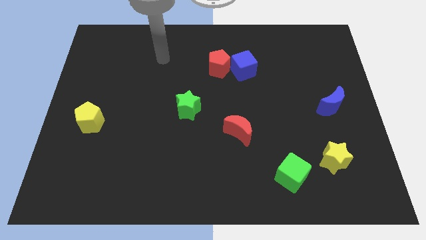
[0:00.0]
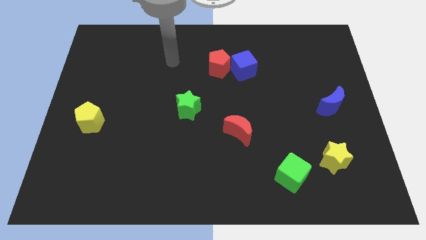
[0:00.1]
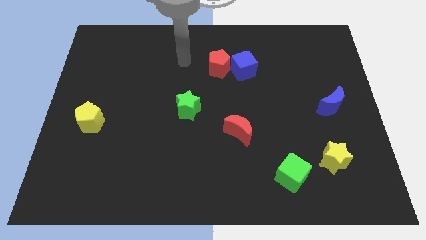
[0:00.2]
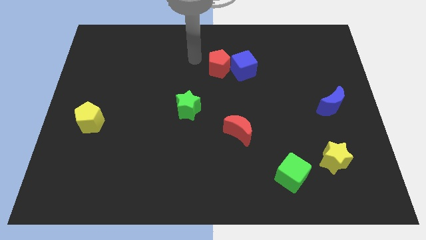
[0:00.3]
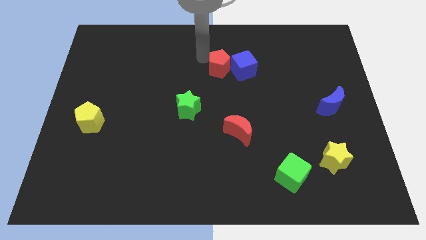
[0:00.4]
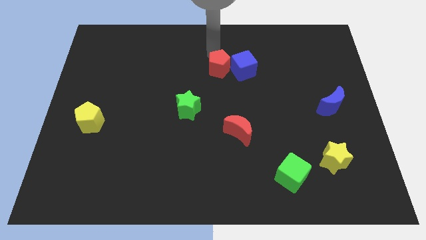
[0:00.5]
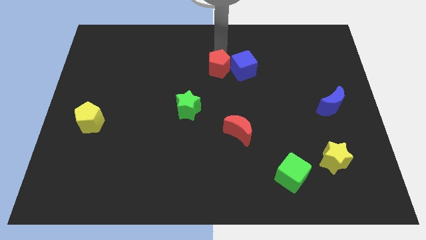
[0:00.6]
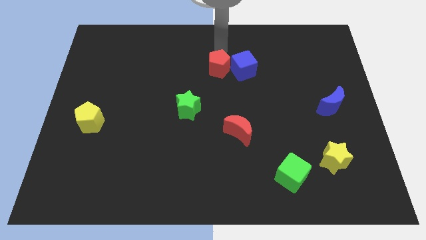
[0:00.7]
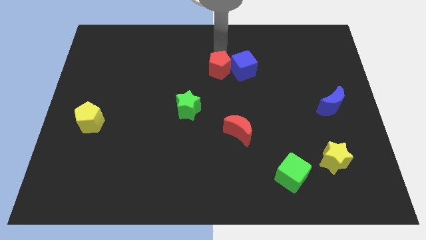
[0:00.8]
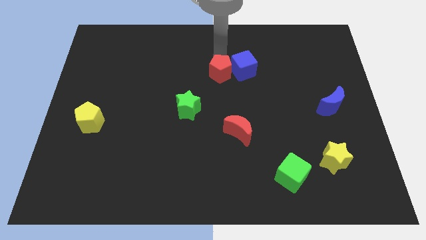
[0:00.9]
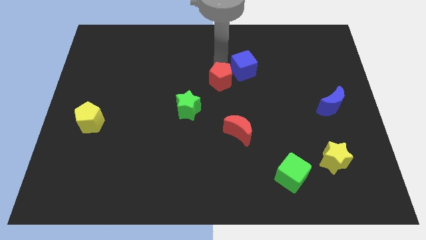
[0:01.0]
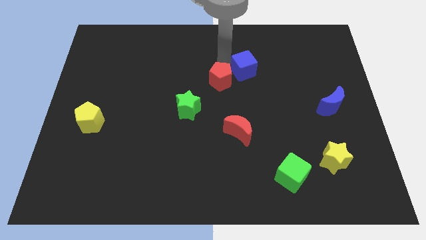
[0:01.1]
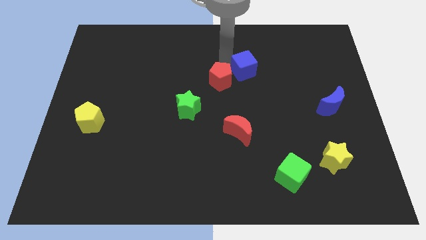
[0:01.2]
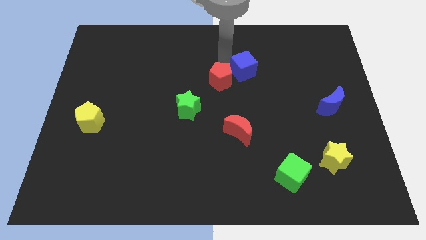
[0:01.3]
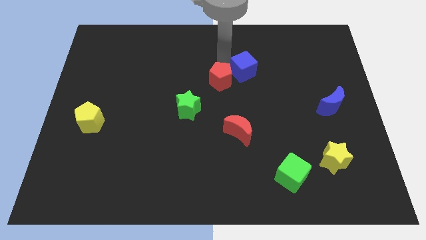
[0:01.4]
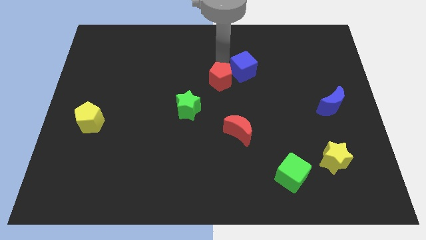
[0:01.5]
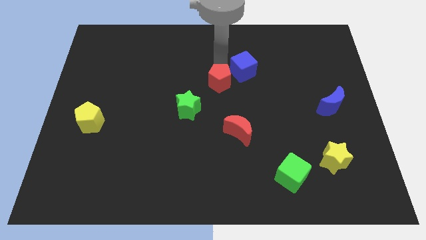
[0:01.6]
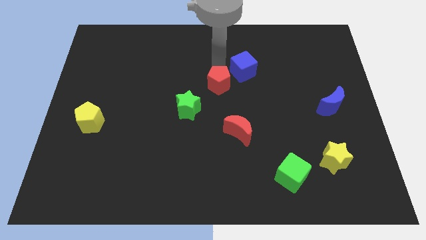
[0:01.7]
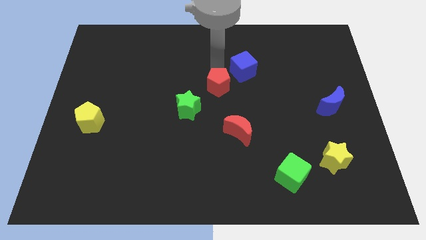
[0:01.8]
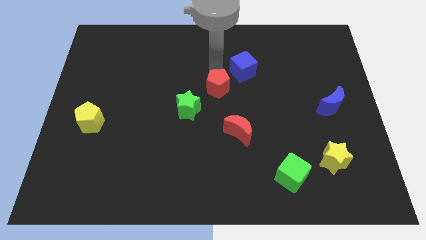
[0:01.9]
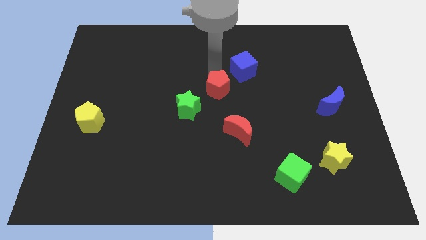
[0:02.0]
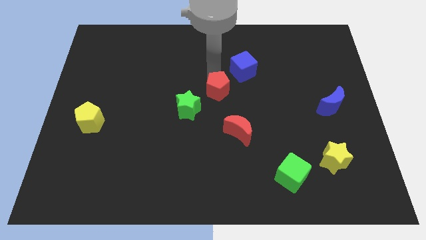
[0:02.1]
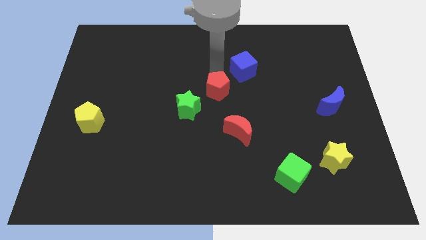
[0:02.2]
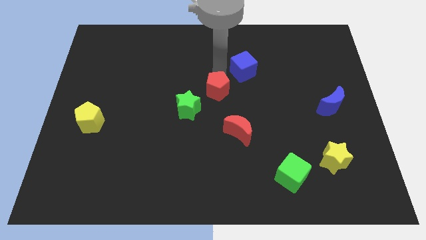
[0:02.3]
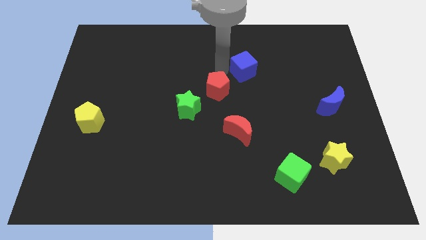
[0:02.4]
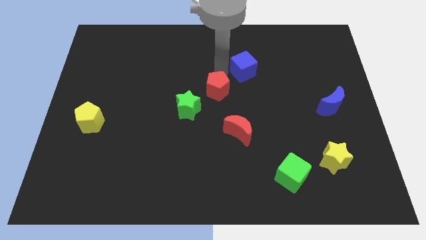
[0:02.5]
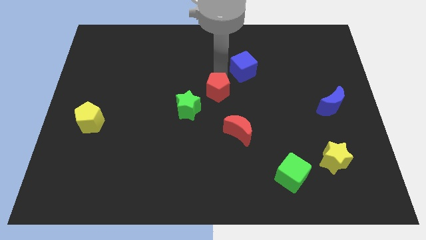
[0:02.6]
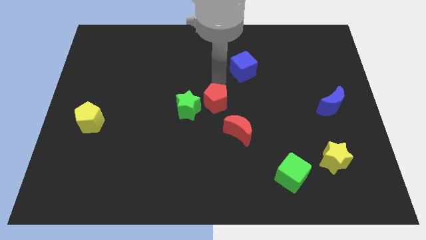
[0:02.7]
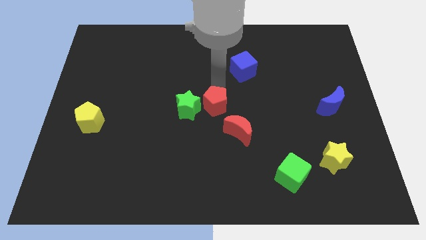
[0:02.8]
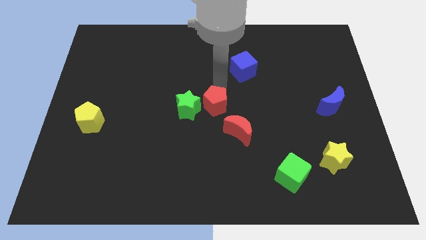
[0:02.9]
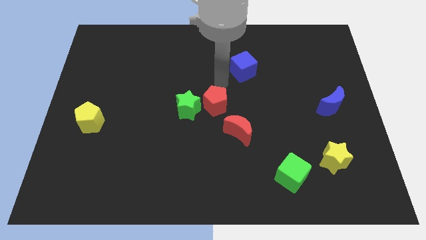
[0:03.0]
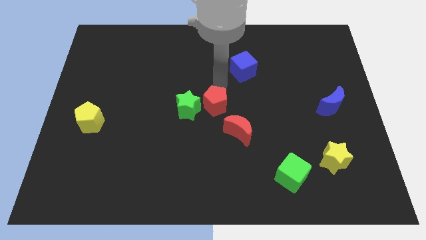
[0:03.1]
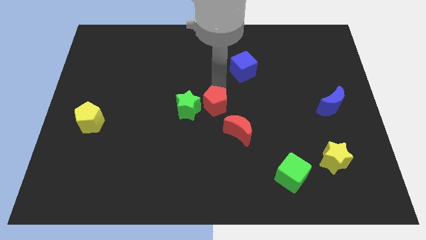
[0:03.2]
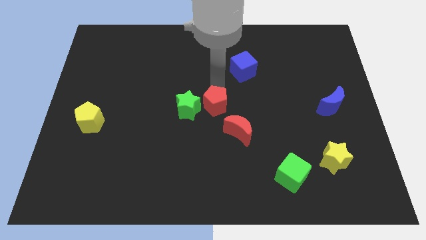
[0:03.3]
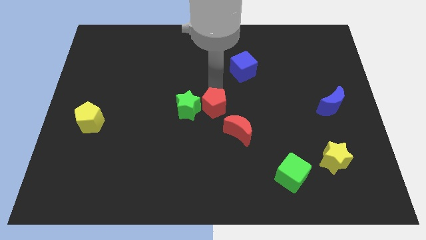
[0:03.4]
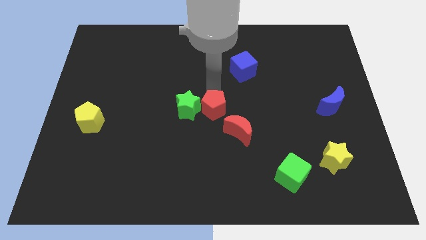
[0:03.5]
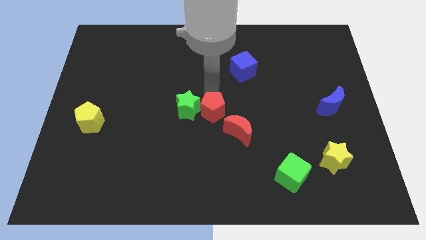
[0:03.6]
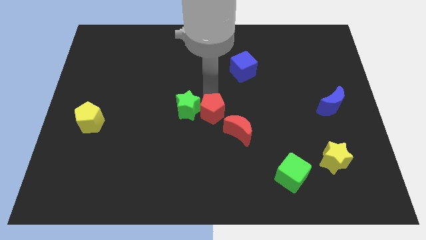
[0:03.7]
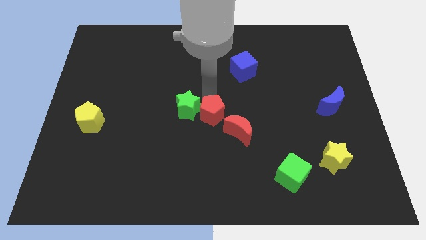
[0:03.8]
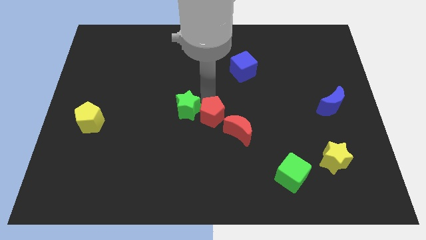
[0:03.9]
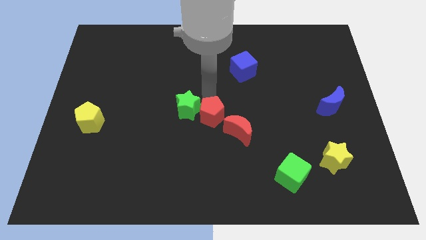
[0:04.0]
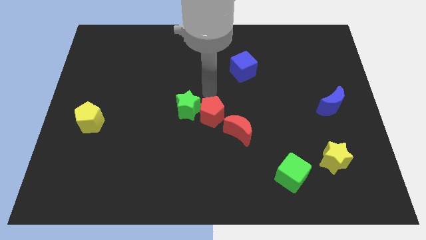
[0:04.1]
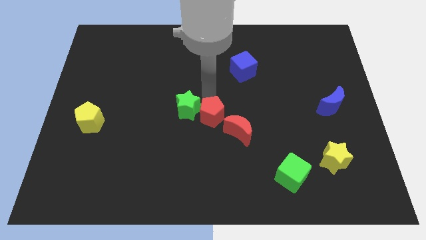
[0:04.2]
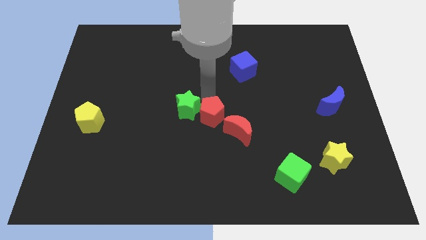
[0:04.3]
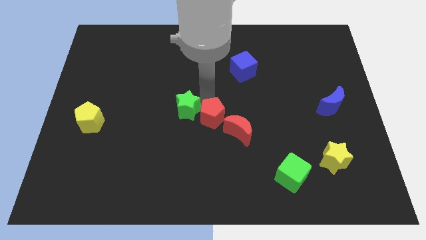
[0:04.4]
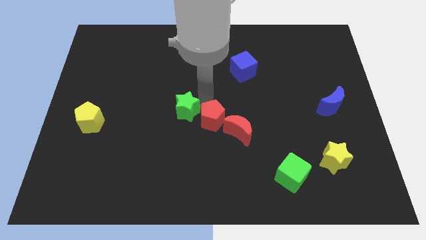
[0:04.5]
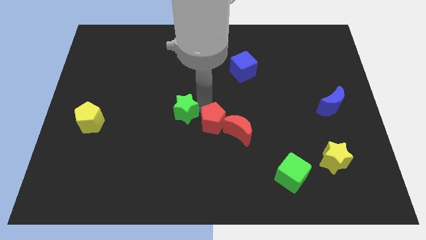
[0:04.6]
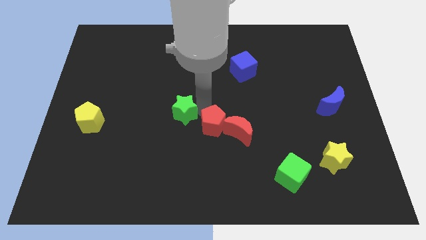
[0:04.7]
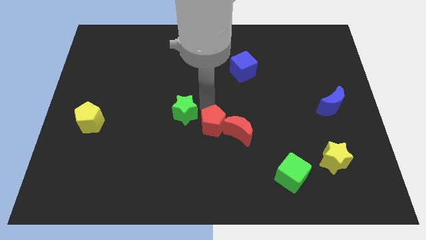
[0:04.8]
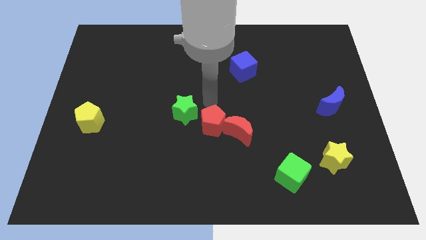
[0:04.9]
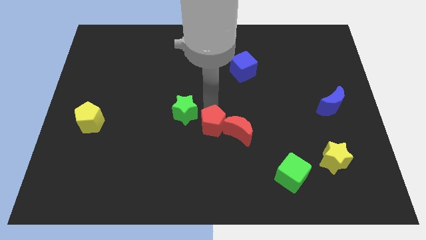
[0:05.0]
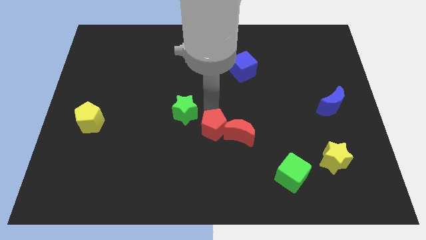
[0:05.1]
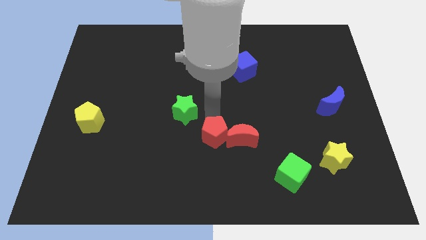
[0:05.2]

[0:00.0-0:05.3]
slide the red pentagon down

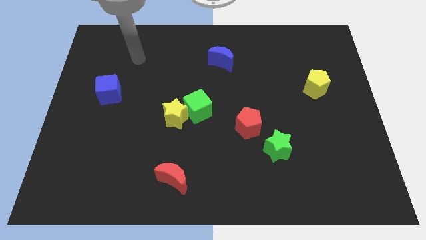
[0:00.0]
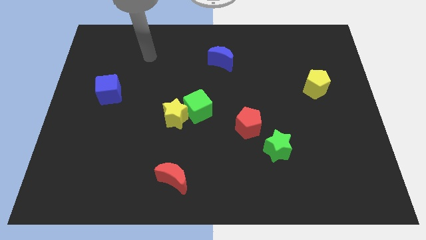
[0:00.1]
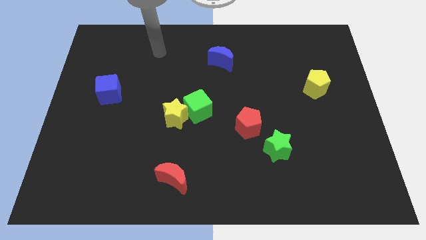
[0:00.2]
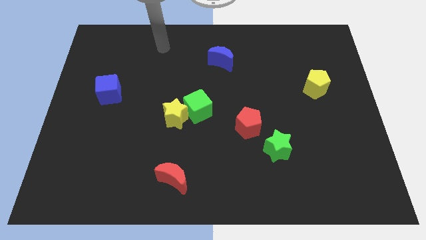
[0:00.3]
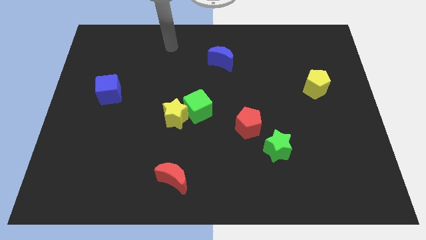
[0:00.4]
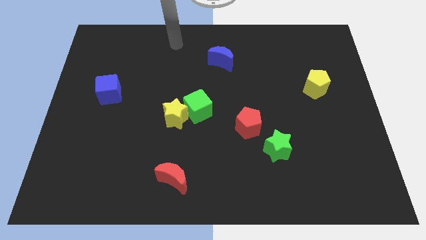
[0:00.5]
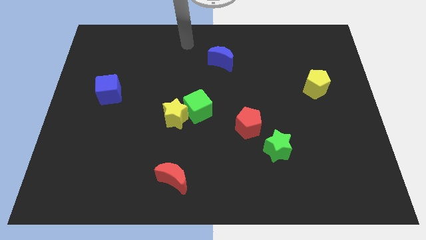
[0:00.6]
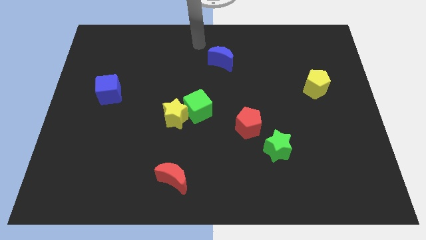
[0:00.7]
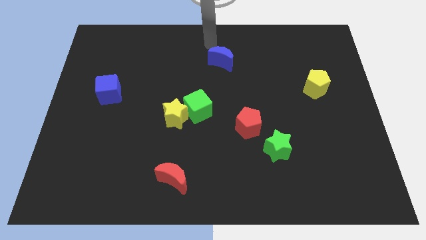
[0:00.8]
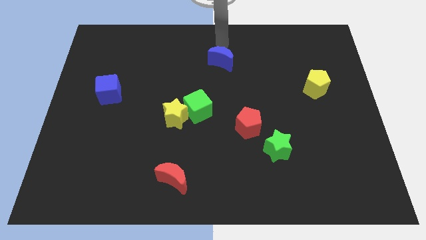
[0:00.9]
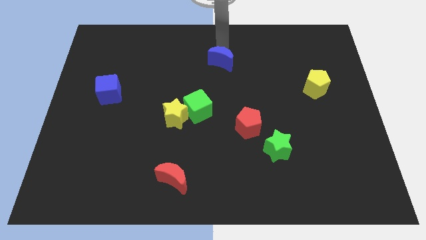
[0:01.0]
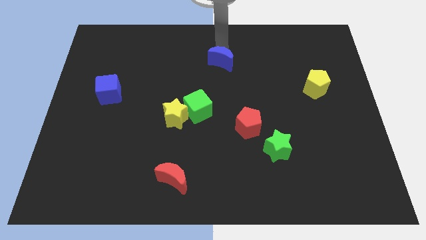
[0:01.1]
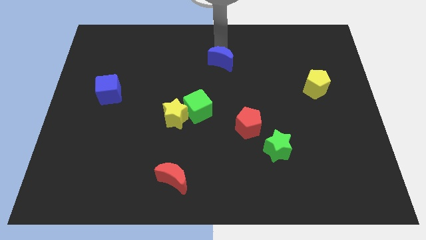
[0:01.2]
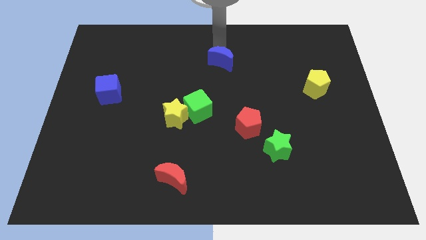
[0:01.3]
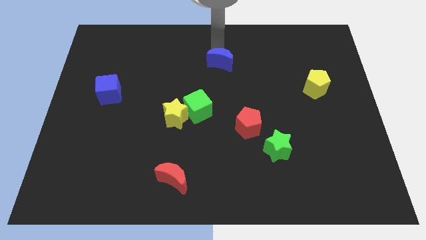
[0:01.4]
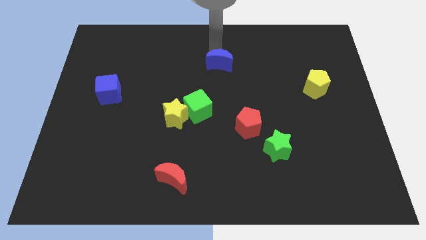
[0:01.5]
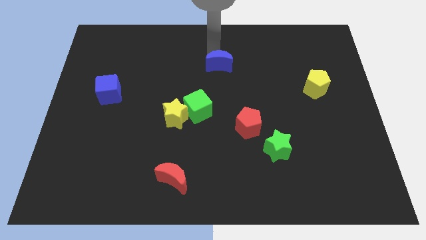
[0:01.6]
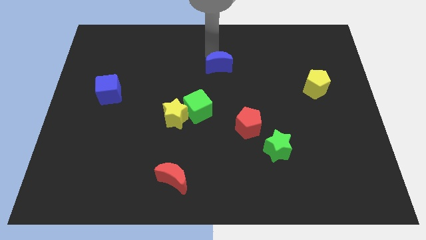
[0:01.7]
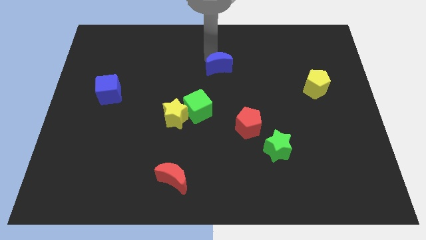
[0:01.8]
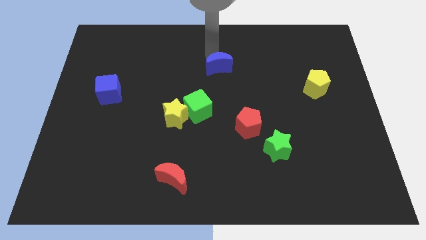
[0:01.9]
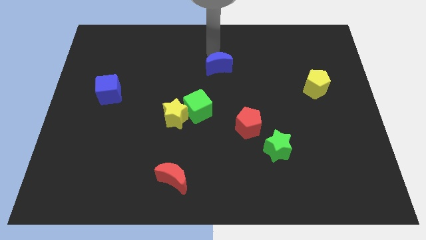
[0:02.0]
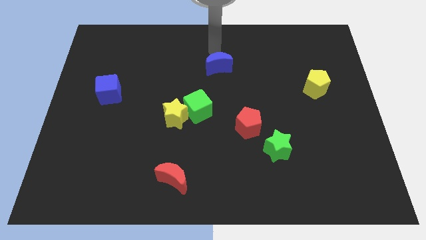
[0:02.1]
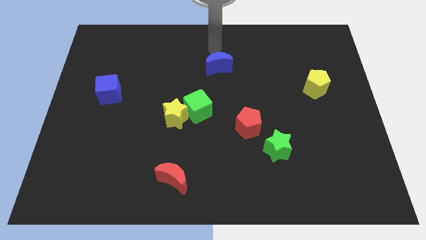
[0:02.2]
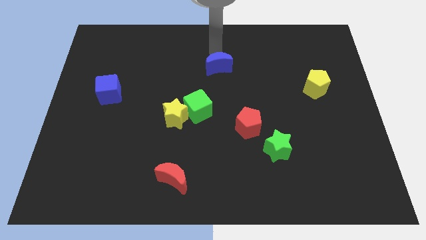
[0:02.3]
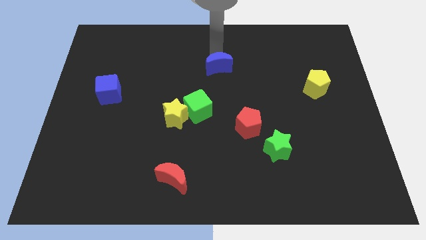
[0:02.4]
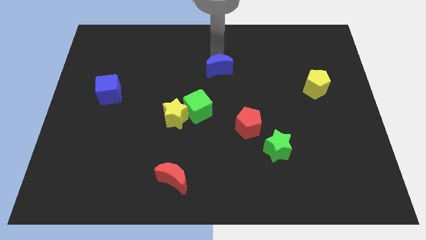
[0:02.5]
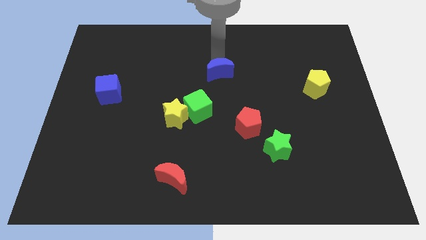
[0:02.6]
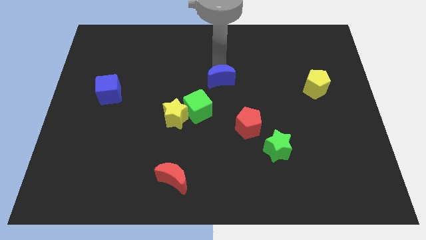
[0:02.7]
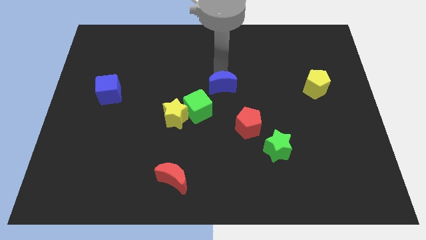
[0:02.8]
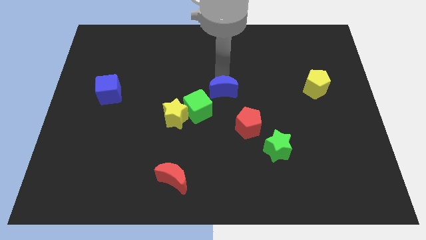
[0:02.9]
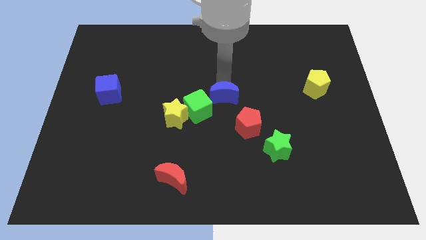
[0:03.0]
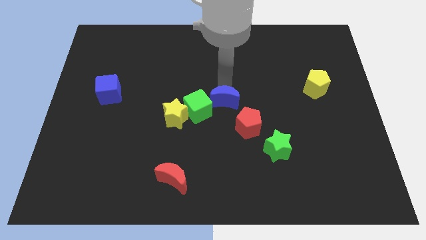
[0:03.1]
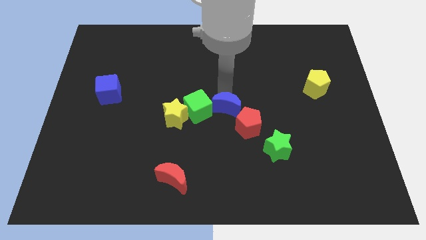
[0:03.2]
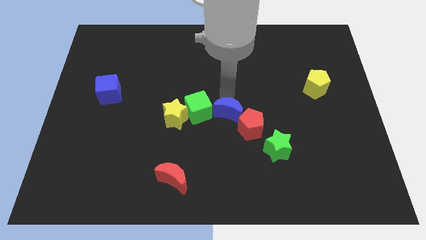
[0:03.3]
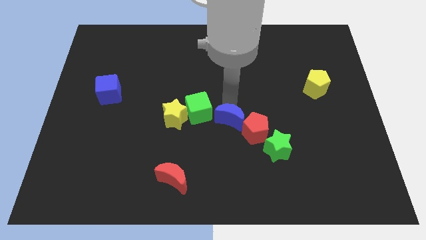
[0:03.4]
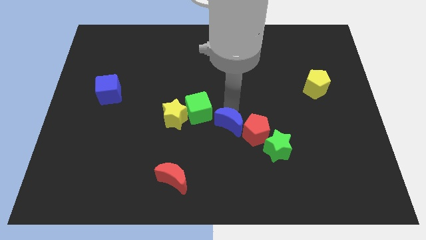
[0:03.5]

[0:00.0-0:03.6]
move the blue moon downwards
